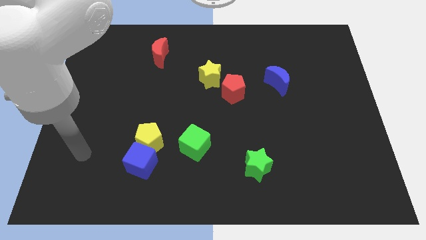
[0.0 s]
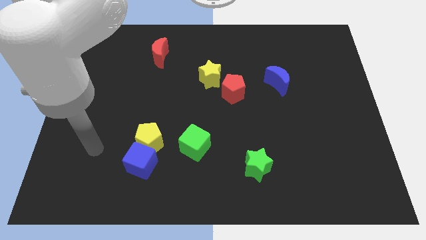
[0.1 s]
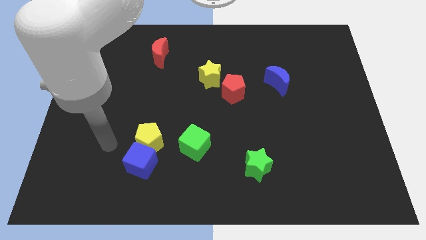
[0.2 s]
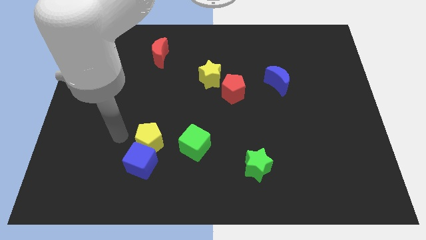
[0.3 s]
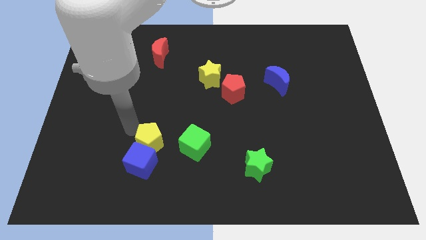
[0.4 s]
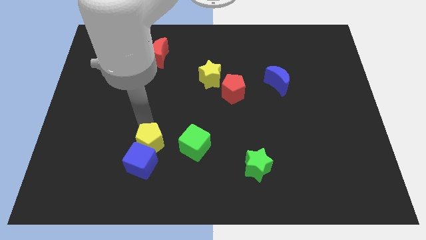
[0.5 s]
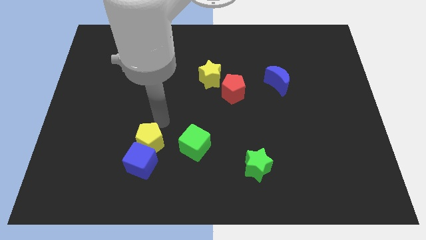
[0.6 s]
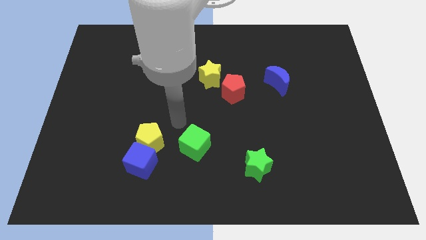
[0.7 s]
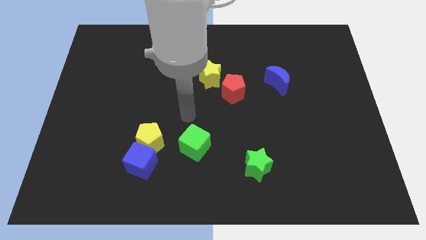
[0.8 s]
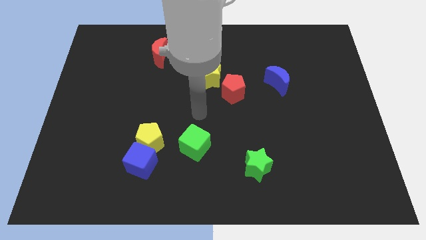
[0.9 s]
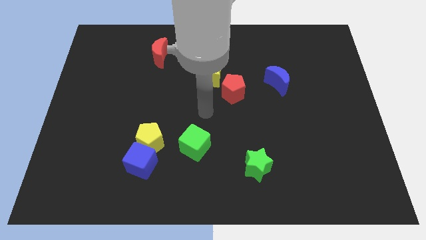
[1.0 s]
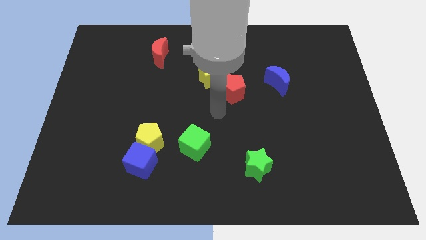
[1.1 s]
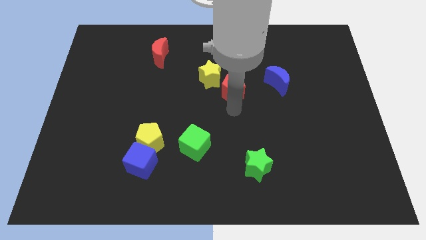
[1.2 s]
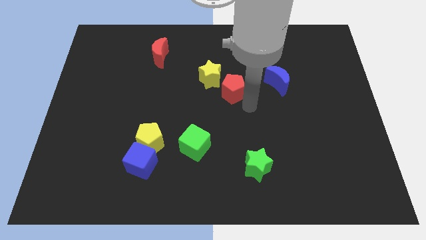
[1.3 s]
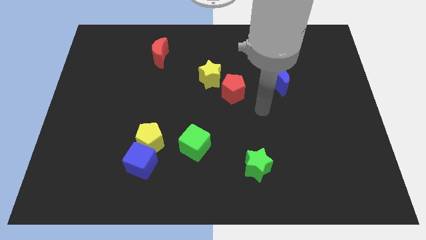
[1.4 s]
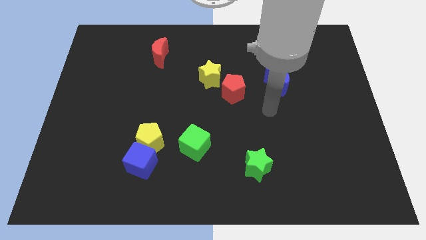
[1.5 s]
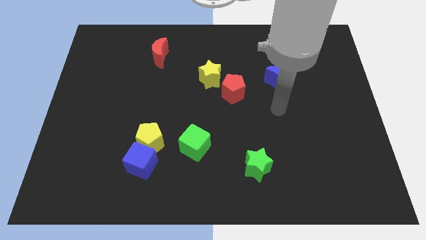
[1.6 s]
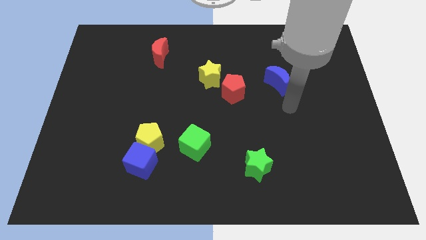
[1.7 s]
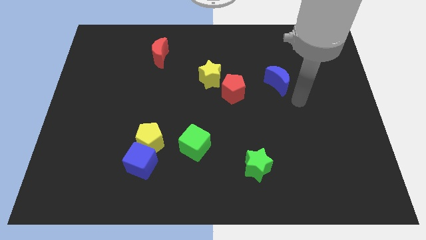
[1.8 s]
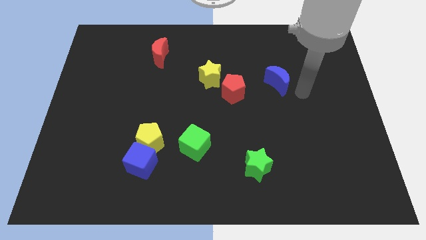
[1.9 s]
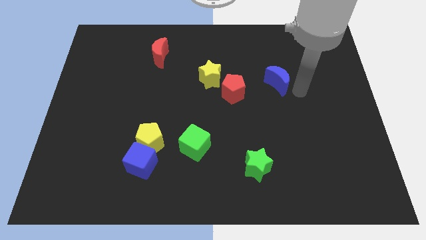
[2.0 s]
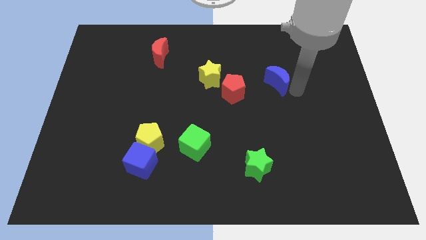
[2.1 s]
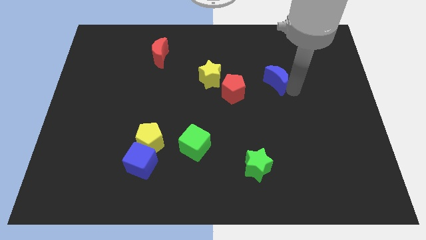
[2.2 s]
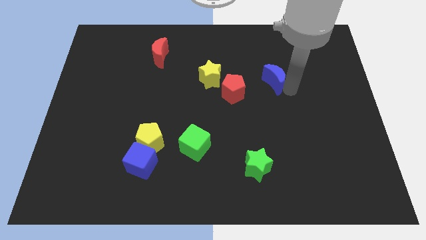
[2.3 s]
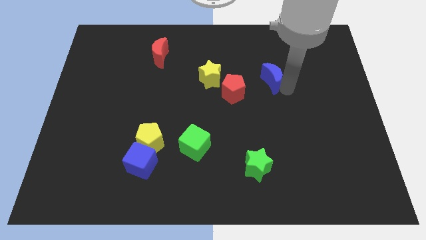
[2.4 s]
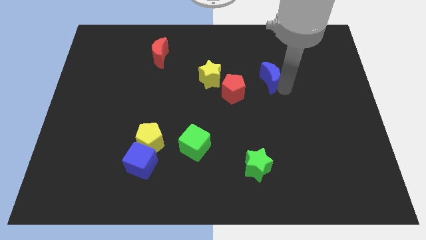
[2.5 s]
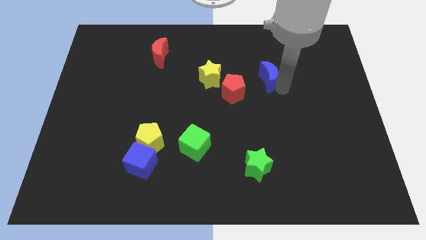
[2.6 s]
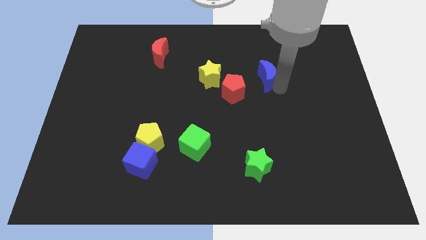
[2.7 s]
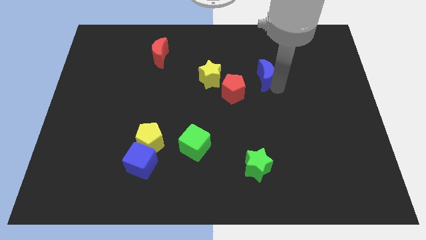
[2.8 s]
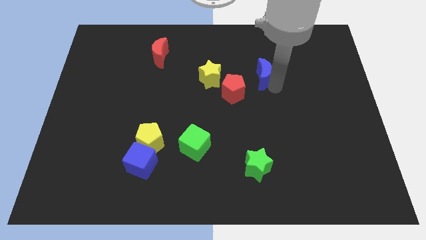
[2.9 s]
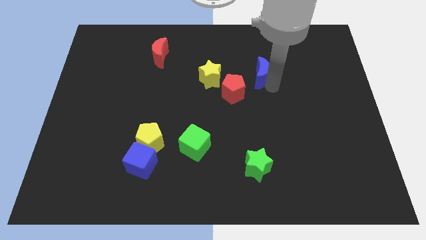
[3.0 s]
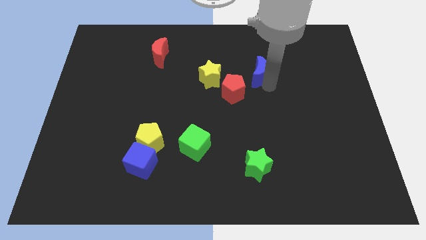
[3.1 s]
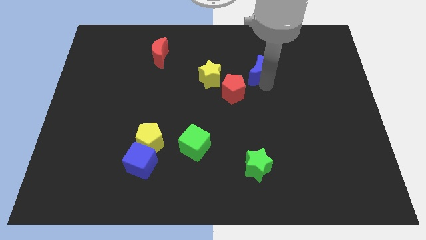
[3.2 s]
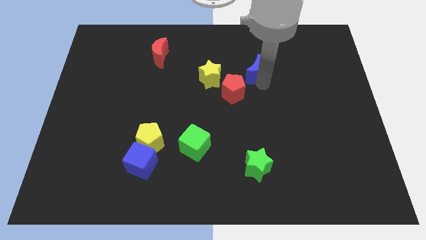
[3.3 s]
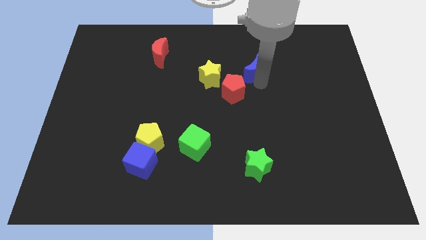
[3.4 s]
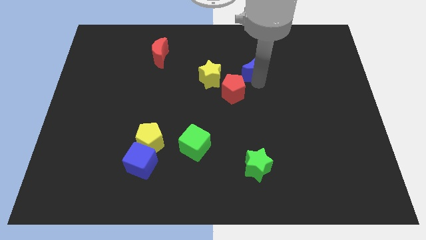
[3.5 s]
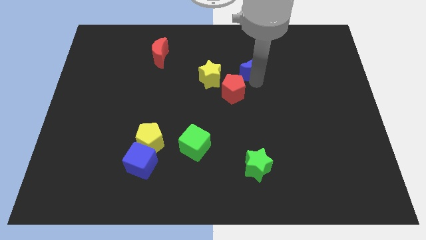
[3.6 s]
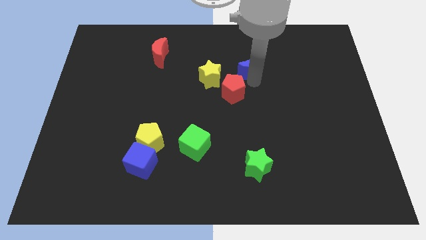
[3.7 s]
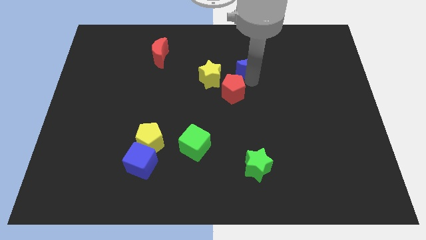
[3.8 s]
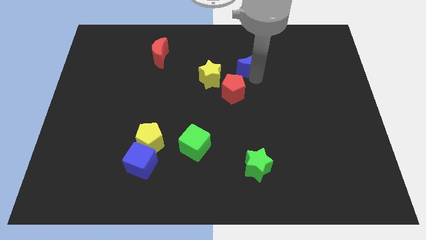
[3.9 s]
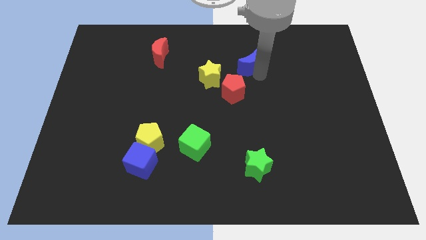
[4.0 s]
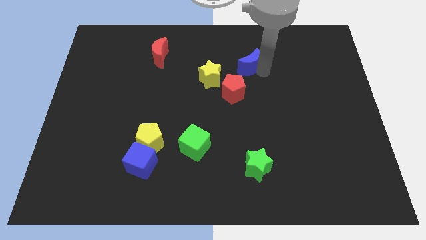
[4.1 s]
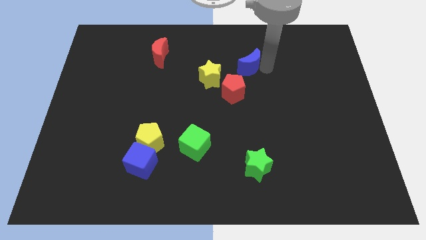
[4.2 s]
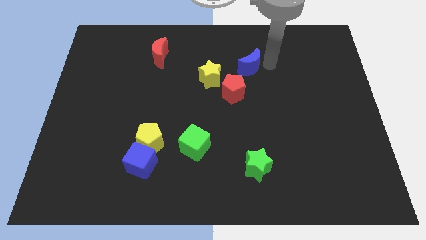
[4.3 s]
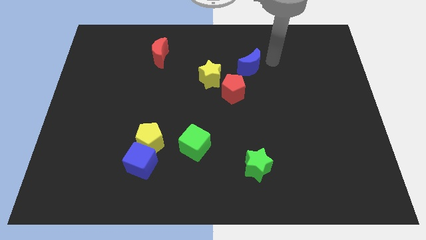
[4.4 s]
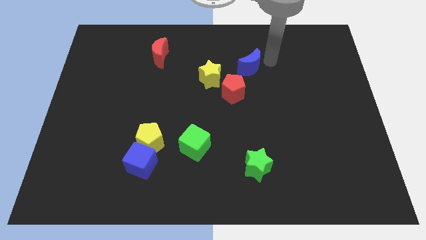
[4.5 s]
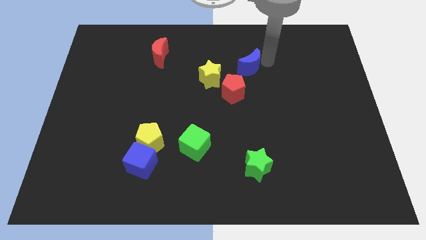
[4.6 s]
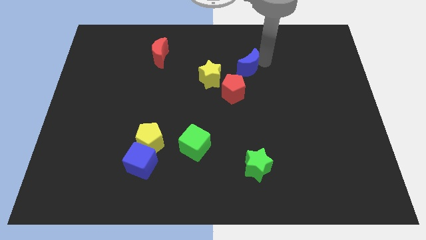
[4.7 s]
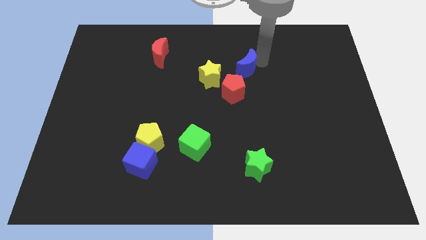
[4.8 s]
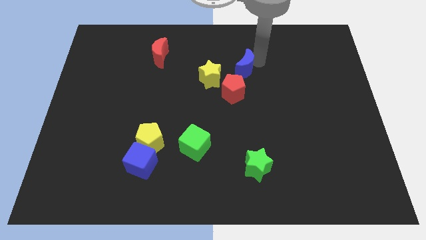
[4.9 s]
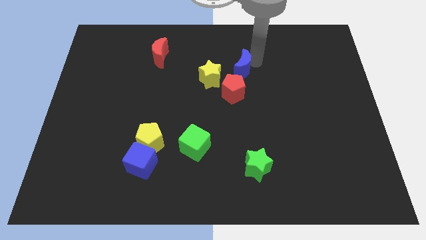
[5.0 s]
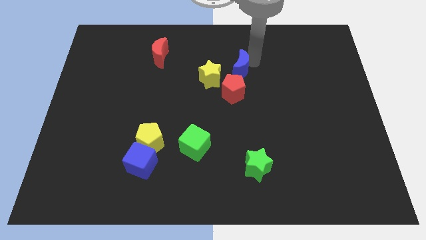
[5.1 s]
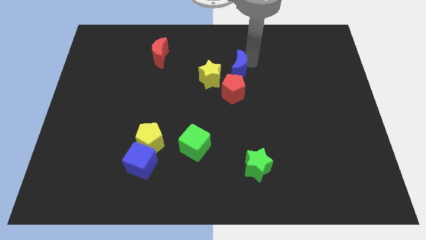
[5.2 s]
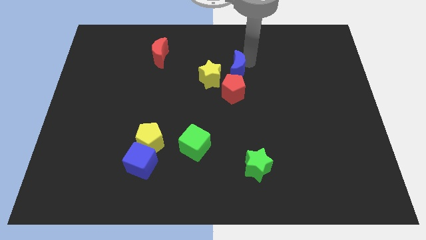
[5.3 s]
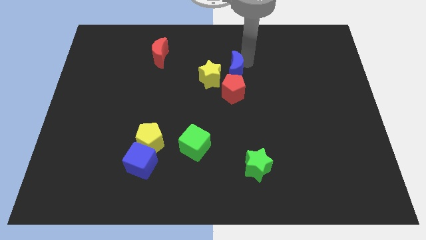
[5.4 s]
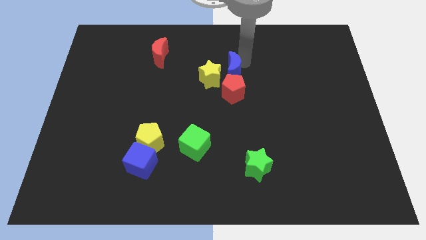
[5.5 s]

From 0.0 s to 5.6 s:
push the blue moon close to the yellow star

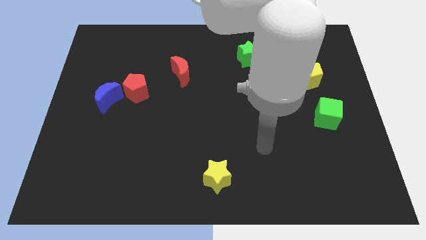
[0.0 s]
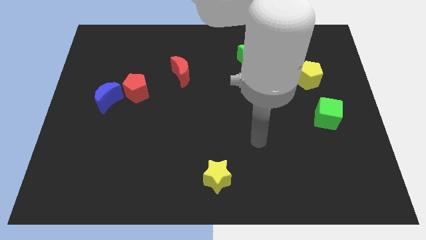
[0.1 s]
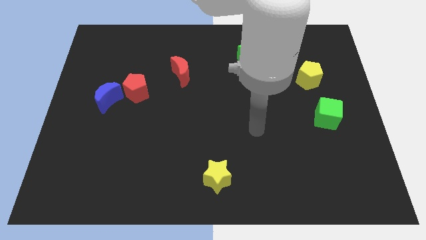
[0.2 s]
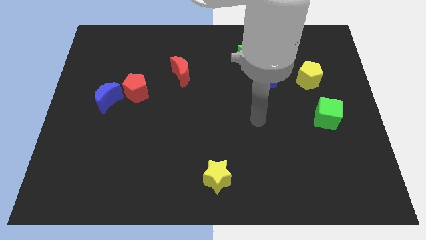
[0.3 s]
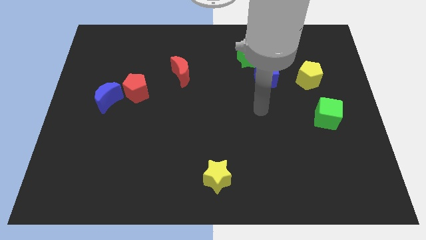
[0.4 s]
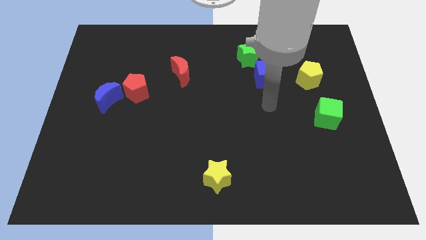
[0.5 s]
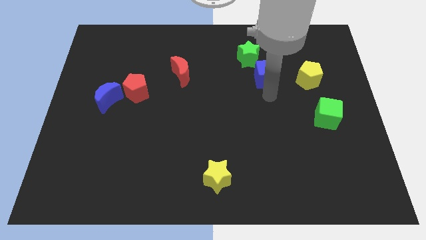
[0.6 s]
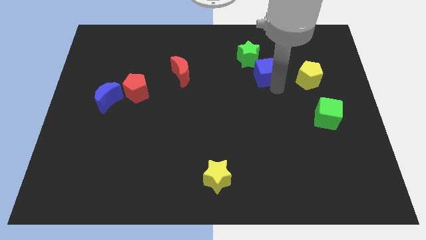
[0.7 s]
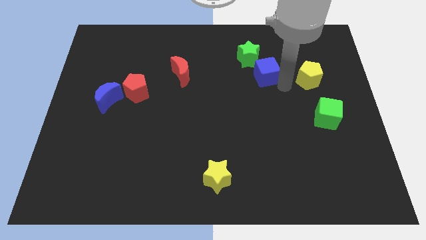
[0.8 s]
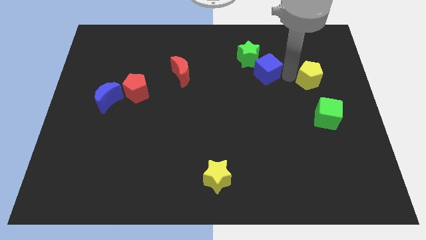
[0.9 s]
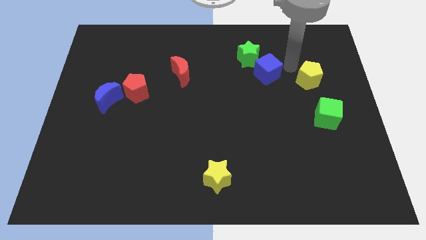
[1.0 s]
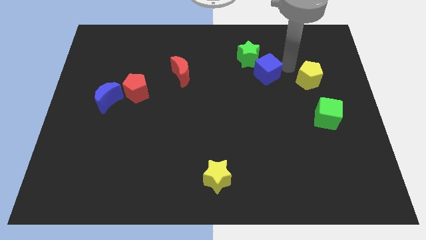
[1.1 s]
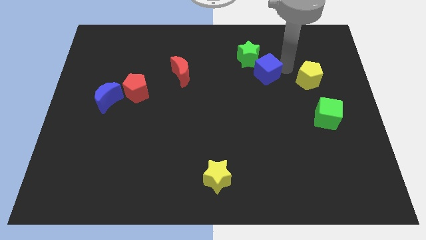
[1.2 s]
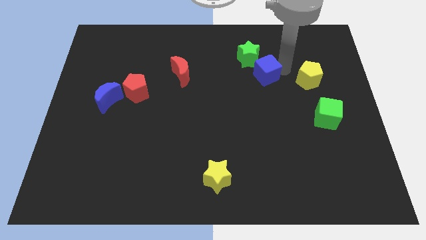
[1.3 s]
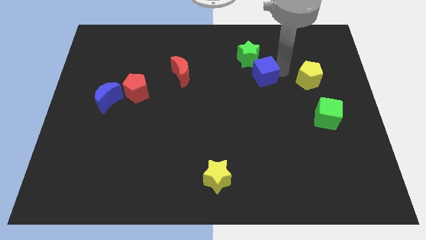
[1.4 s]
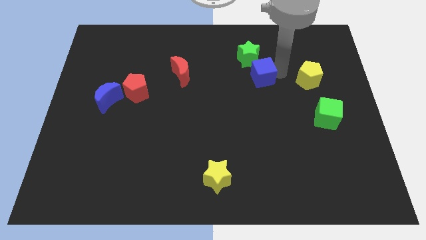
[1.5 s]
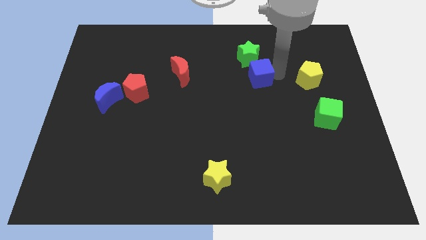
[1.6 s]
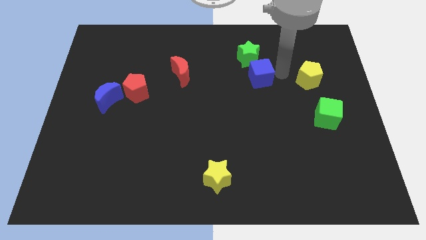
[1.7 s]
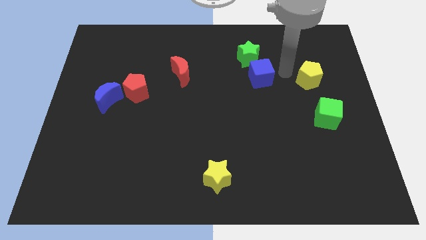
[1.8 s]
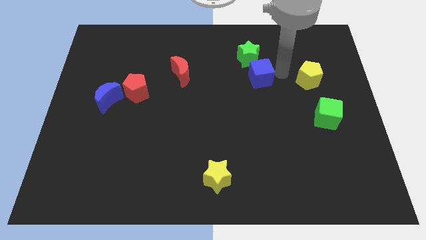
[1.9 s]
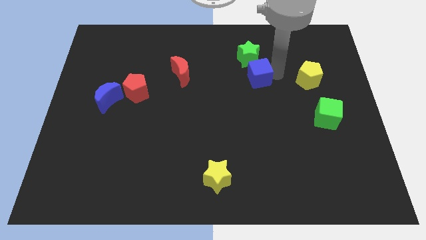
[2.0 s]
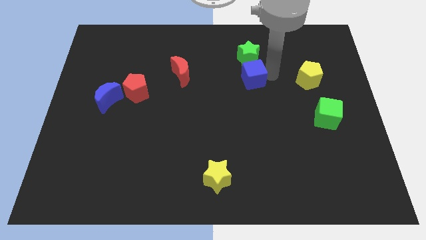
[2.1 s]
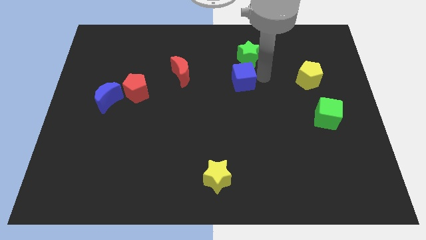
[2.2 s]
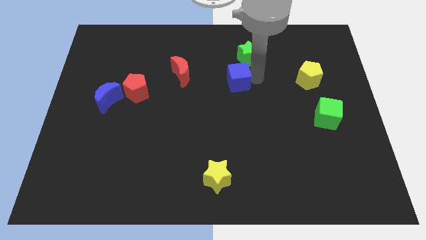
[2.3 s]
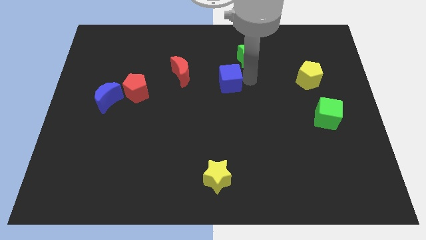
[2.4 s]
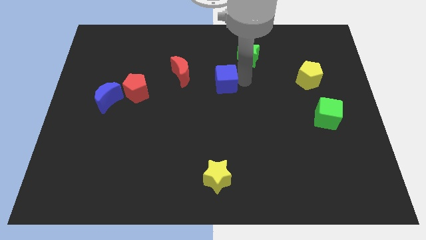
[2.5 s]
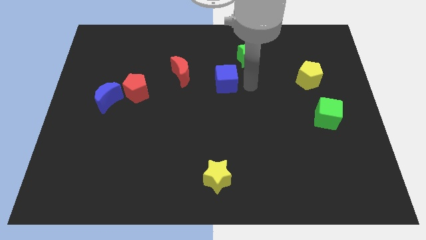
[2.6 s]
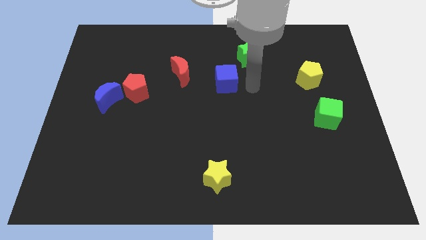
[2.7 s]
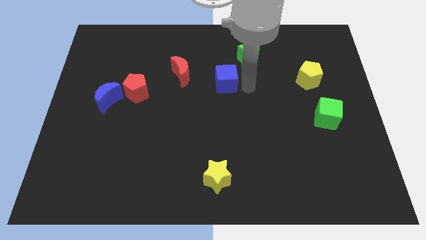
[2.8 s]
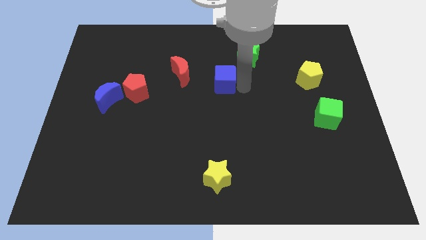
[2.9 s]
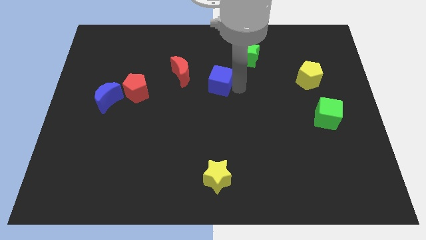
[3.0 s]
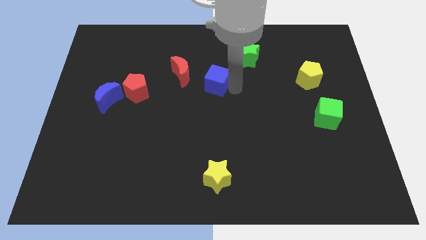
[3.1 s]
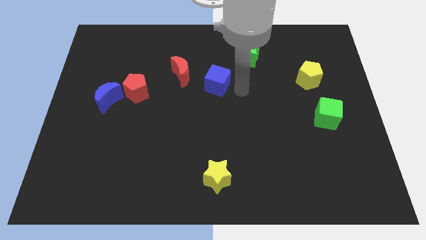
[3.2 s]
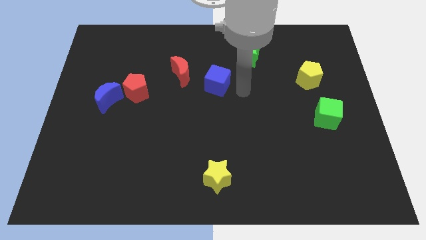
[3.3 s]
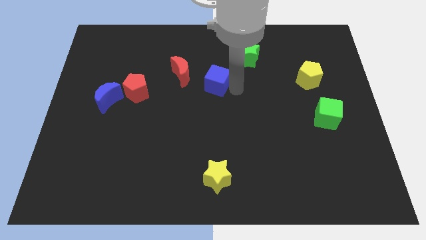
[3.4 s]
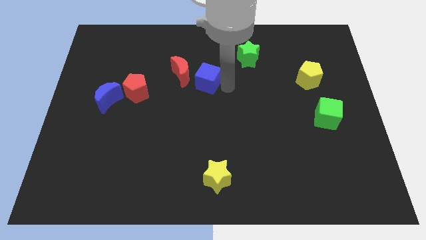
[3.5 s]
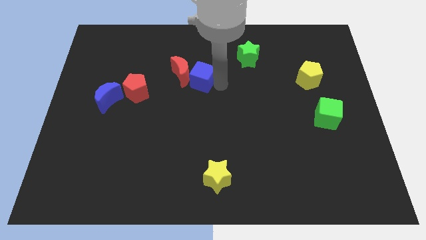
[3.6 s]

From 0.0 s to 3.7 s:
put the blue cube to the red moon
